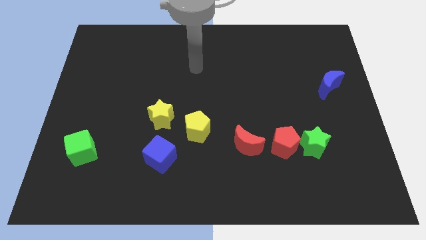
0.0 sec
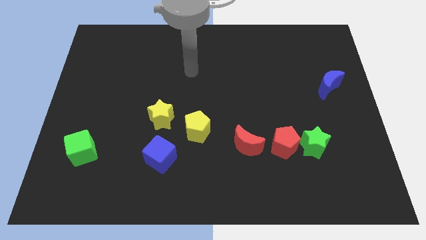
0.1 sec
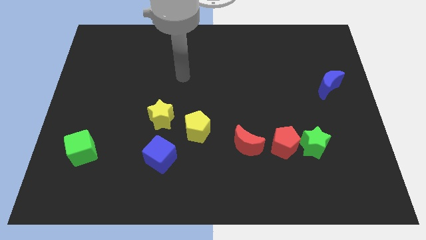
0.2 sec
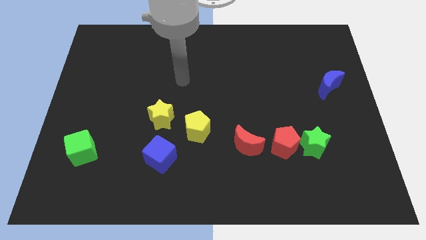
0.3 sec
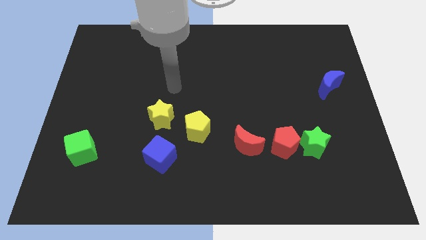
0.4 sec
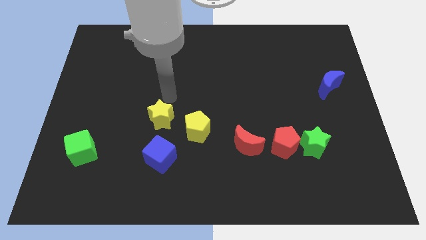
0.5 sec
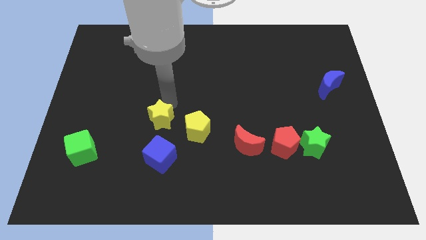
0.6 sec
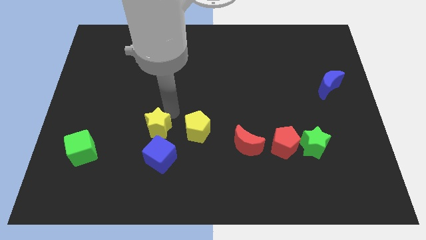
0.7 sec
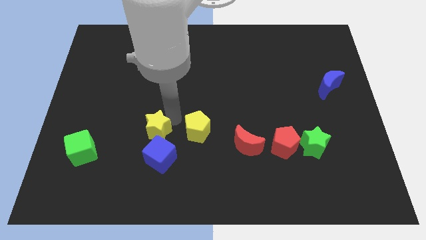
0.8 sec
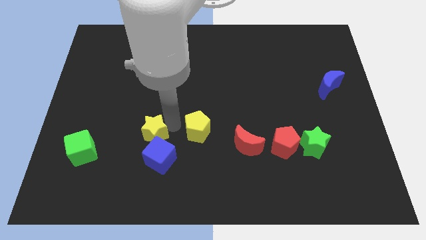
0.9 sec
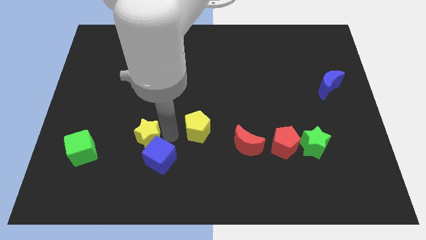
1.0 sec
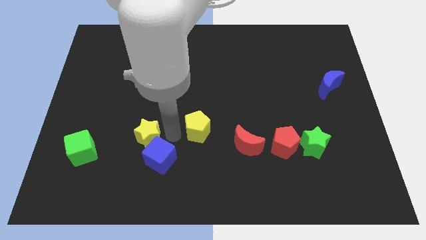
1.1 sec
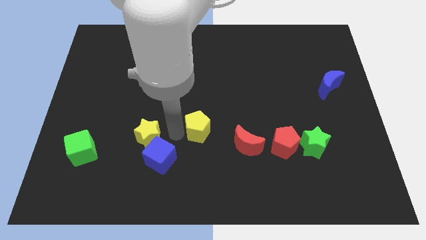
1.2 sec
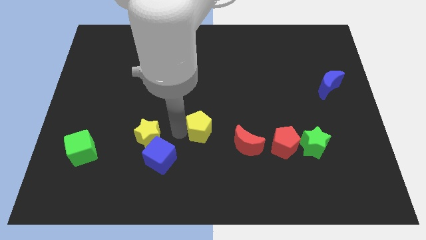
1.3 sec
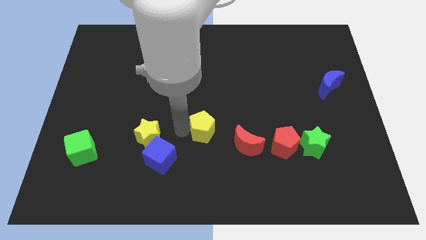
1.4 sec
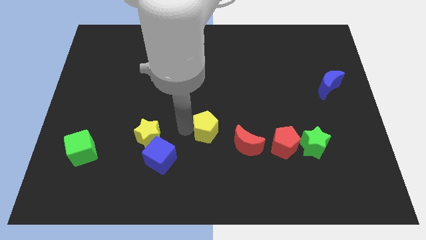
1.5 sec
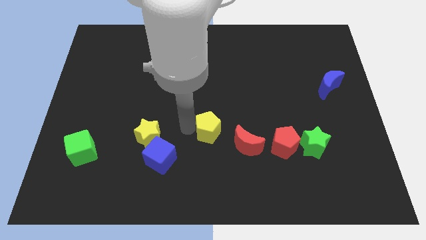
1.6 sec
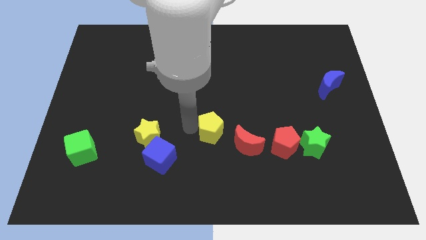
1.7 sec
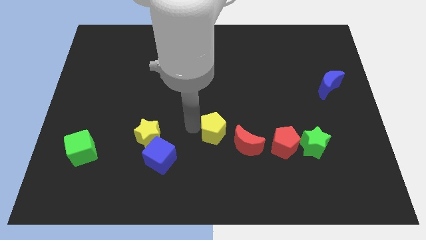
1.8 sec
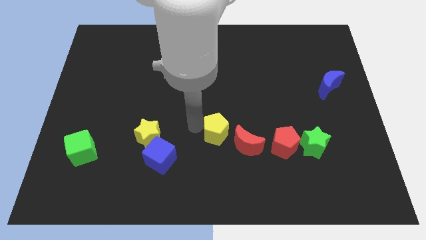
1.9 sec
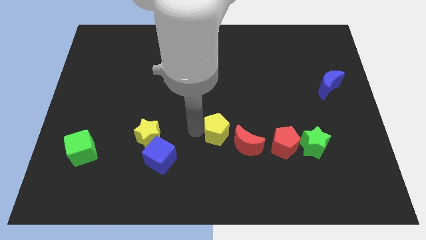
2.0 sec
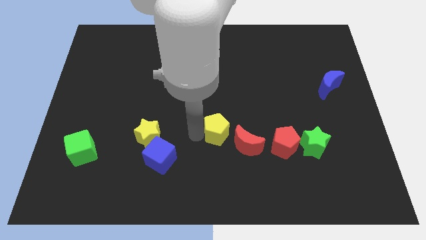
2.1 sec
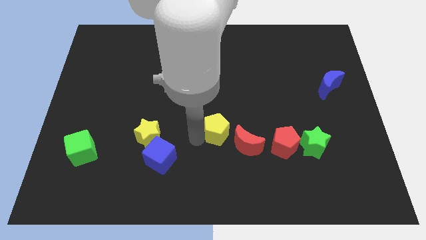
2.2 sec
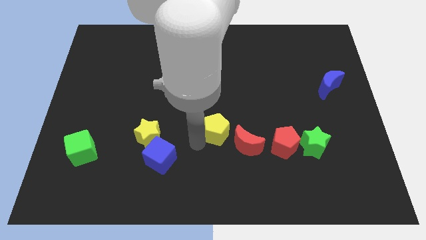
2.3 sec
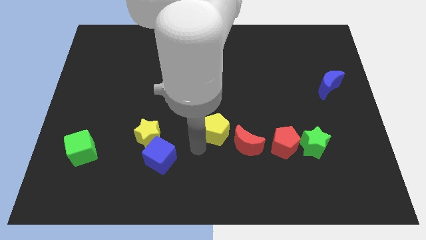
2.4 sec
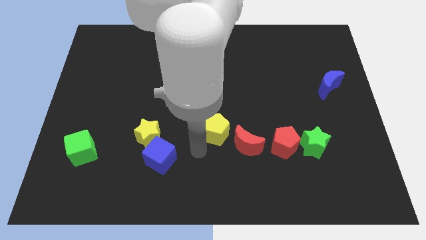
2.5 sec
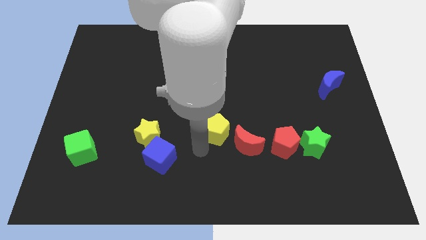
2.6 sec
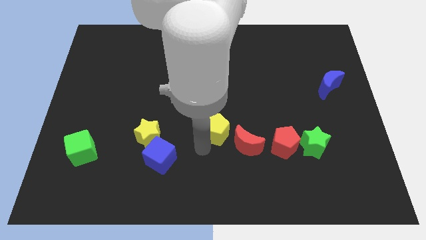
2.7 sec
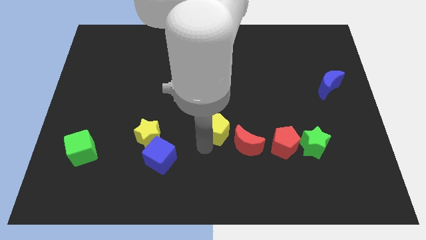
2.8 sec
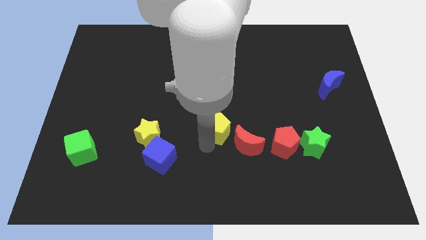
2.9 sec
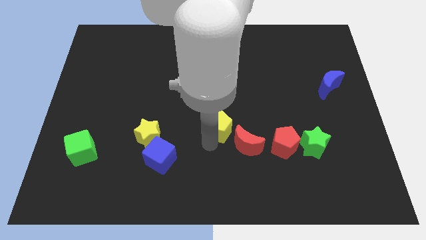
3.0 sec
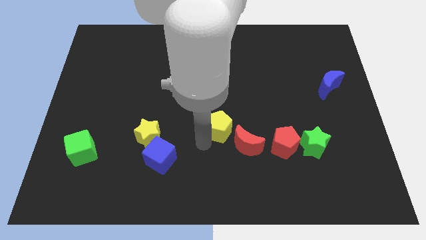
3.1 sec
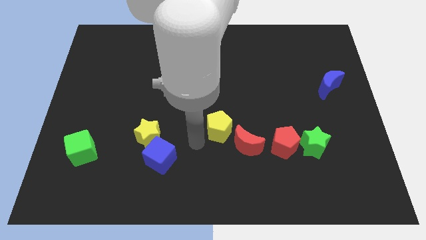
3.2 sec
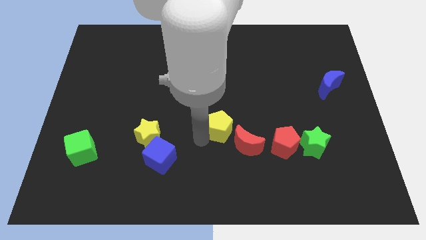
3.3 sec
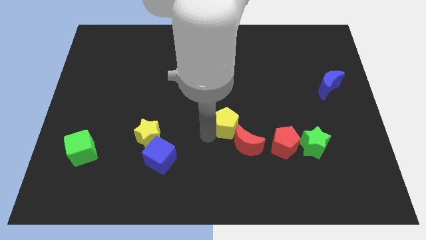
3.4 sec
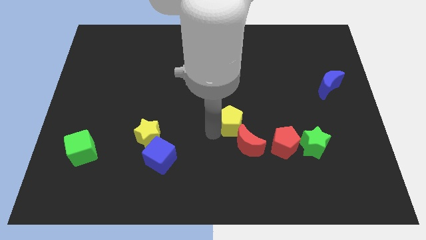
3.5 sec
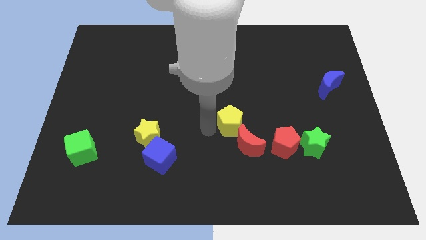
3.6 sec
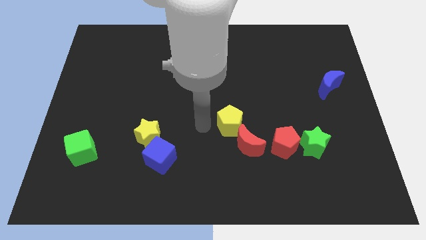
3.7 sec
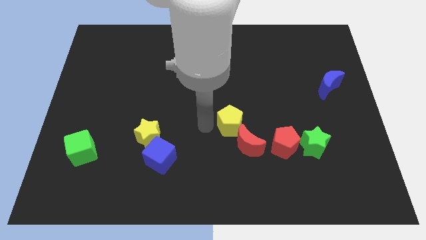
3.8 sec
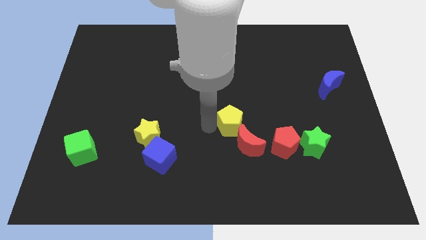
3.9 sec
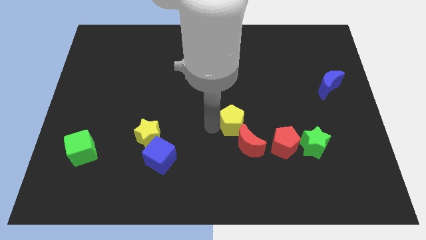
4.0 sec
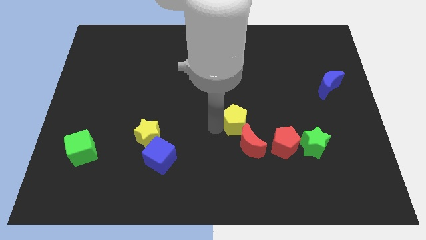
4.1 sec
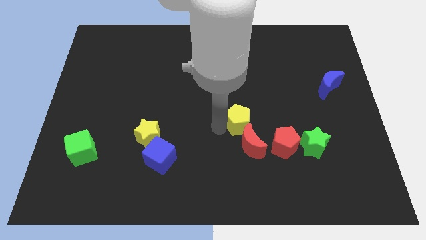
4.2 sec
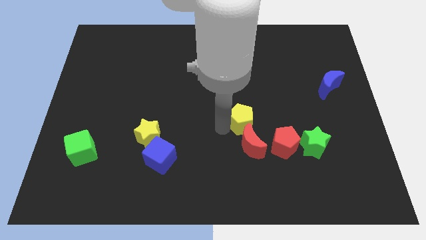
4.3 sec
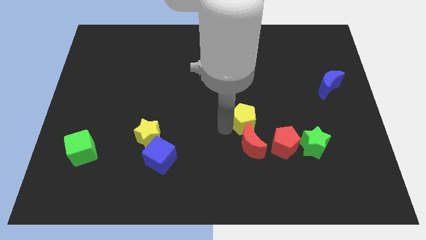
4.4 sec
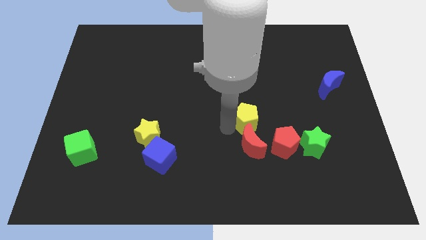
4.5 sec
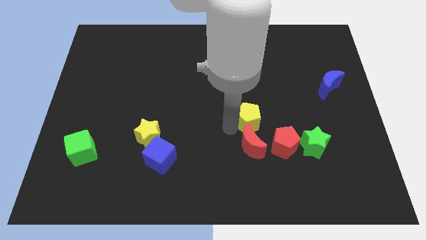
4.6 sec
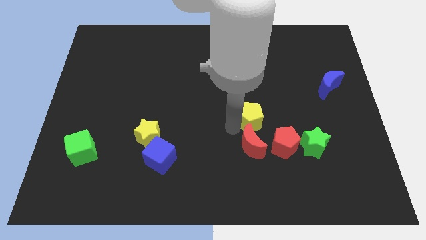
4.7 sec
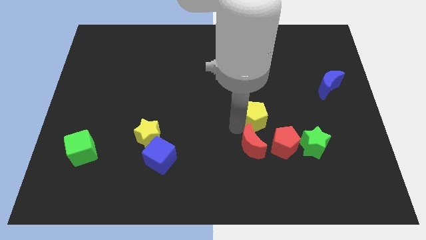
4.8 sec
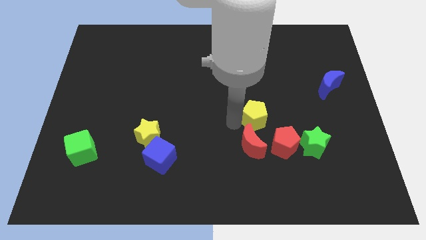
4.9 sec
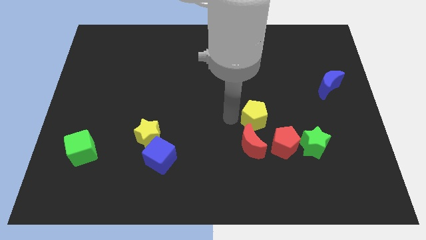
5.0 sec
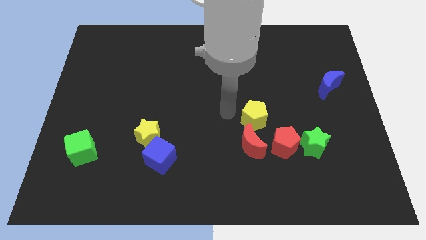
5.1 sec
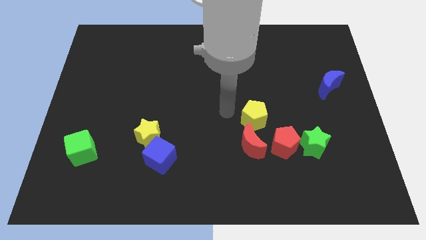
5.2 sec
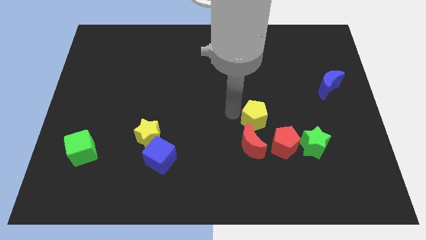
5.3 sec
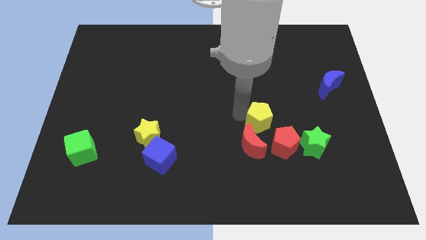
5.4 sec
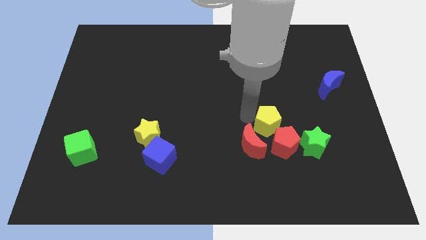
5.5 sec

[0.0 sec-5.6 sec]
move the yellow pentagon to the top left of the green star

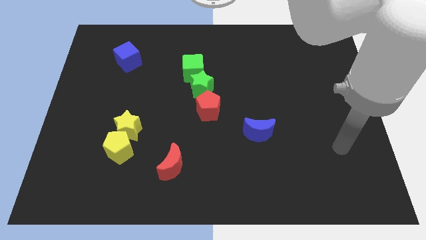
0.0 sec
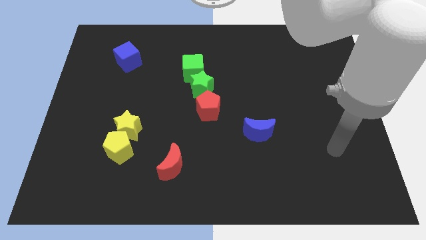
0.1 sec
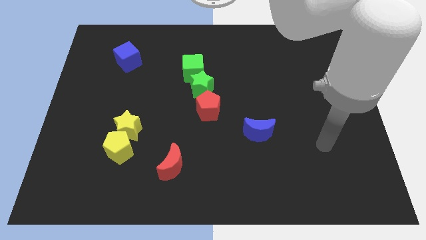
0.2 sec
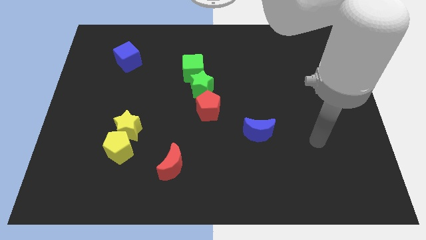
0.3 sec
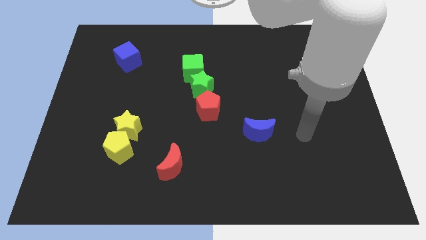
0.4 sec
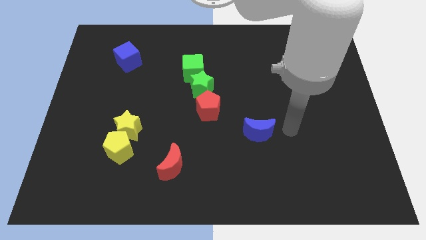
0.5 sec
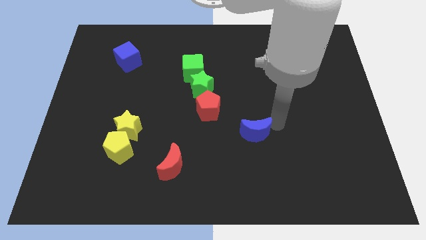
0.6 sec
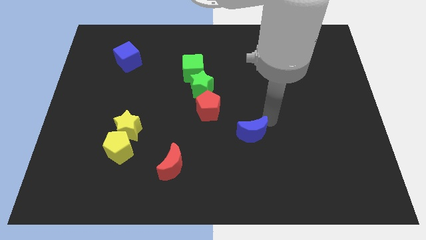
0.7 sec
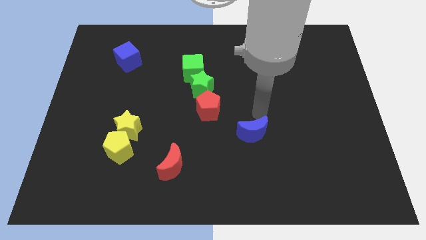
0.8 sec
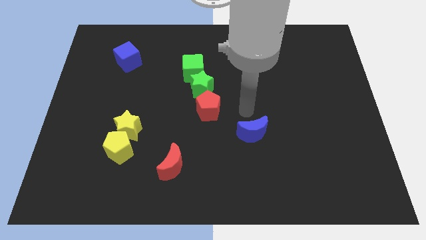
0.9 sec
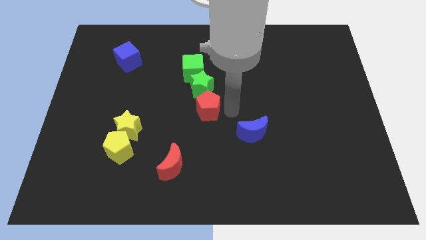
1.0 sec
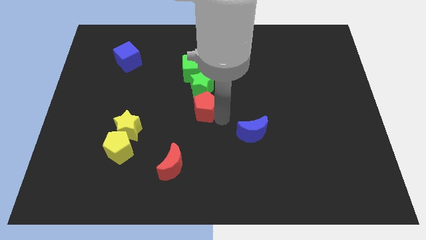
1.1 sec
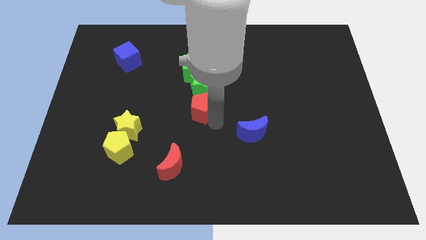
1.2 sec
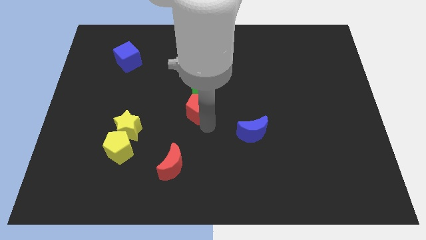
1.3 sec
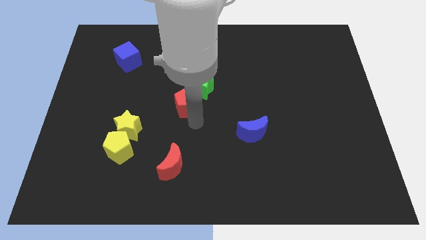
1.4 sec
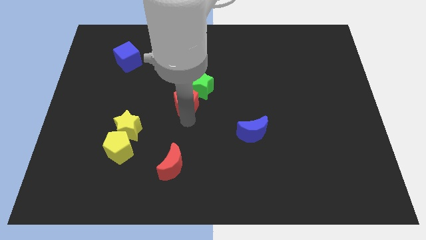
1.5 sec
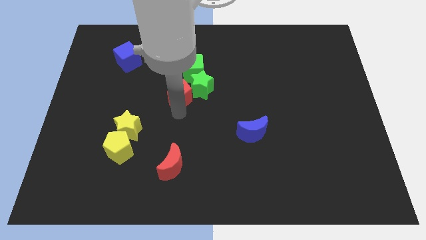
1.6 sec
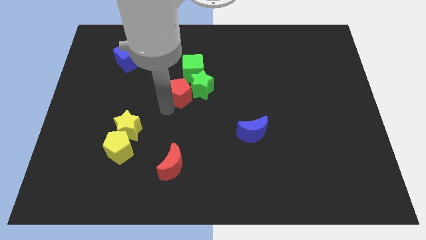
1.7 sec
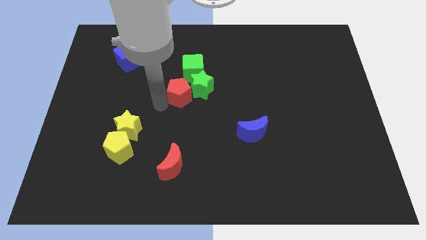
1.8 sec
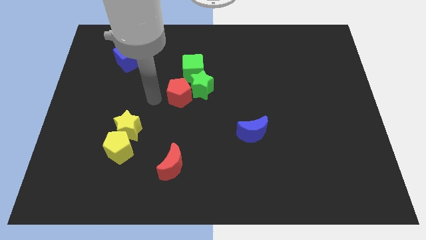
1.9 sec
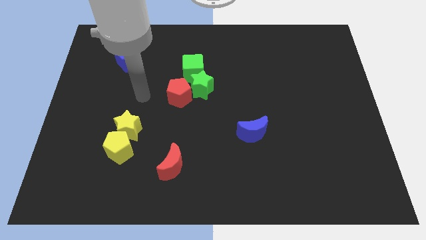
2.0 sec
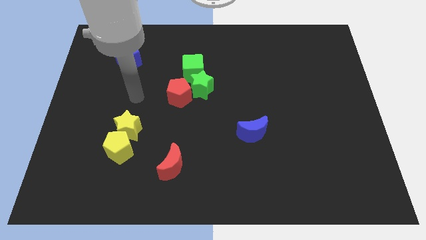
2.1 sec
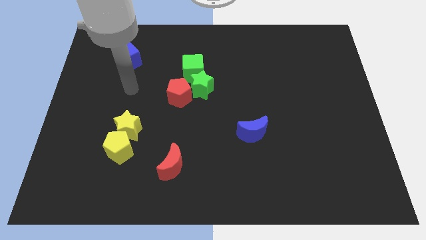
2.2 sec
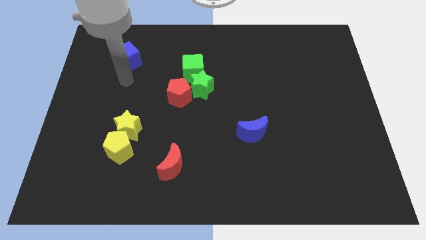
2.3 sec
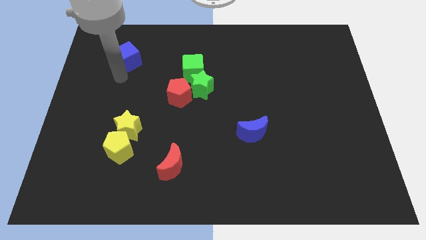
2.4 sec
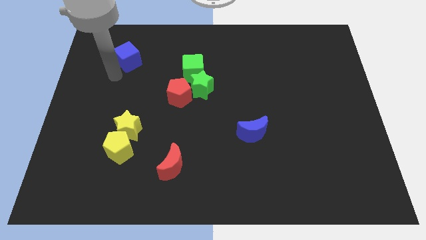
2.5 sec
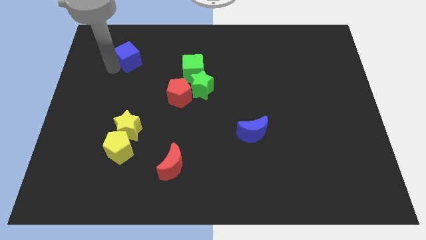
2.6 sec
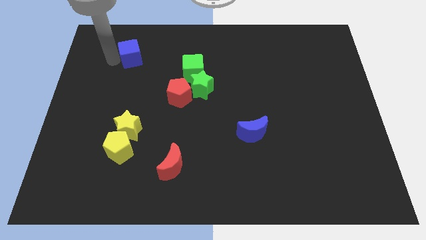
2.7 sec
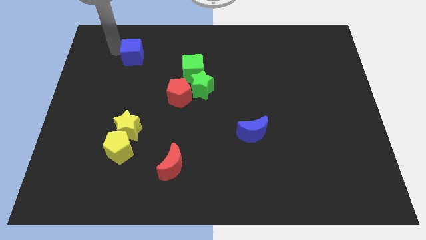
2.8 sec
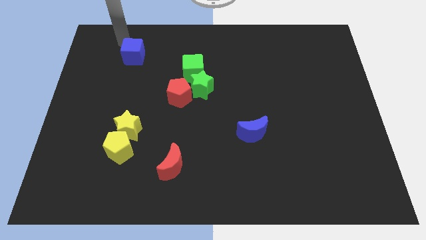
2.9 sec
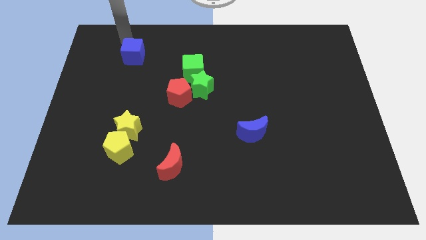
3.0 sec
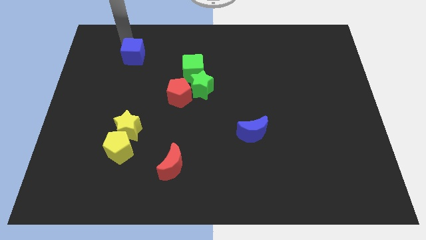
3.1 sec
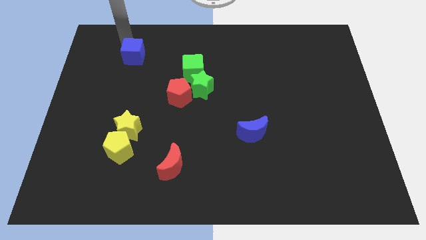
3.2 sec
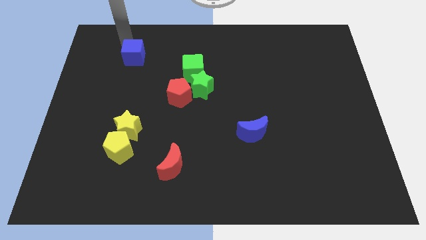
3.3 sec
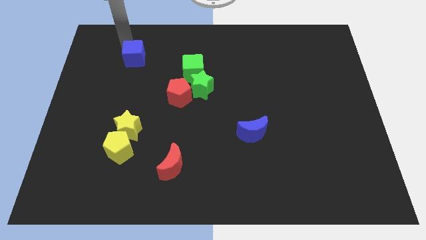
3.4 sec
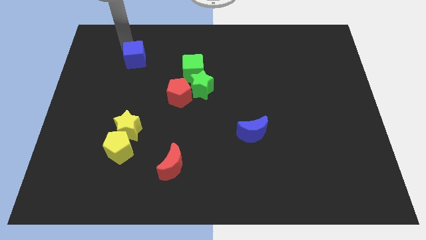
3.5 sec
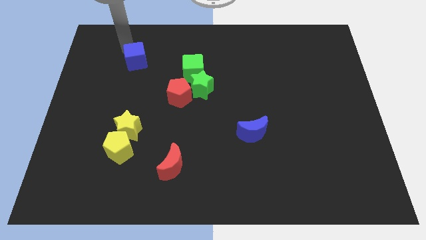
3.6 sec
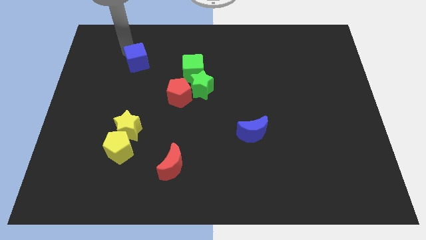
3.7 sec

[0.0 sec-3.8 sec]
put the blue cube left of the green cube
